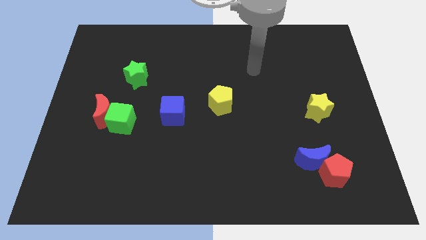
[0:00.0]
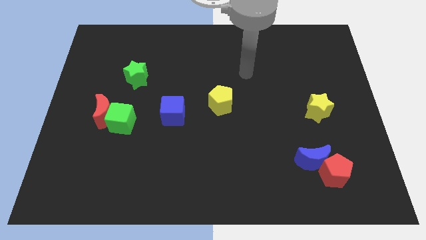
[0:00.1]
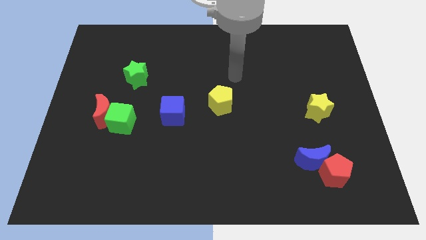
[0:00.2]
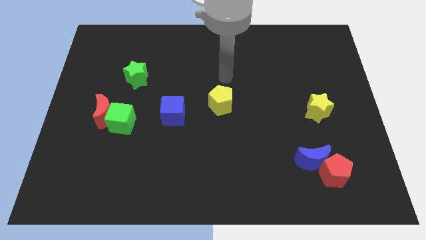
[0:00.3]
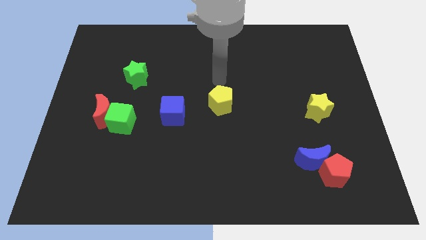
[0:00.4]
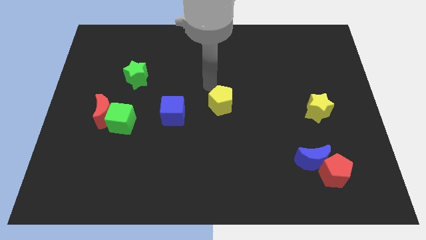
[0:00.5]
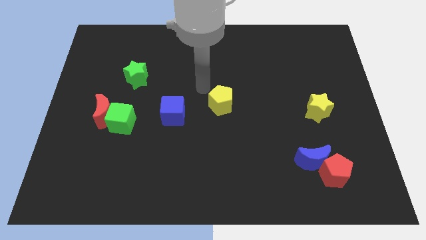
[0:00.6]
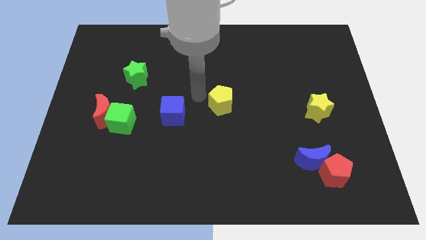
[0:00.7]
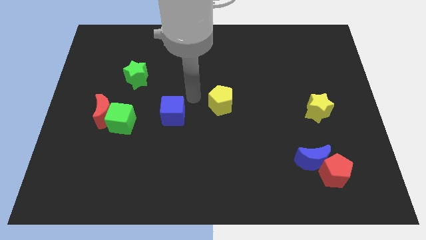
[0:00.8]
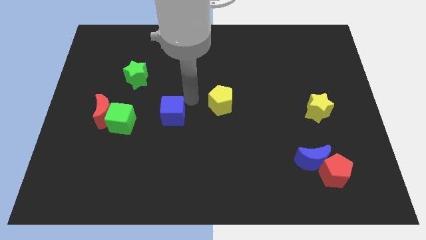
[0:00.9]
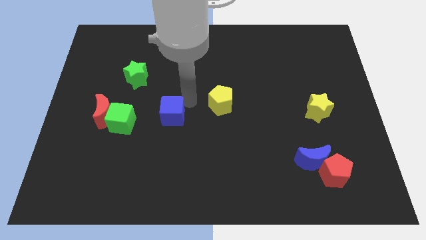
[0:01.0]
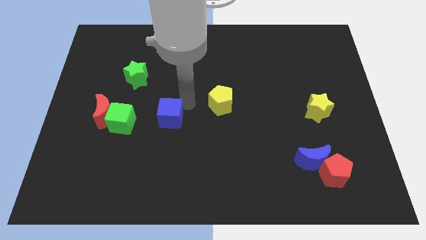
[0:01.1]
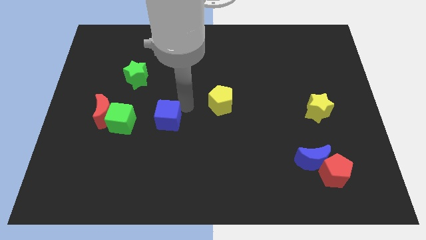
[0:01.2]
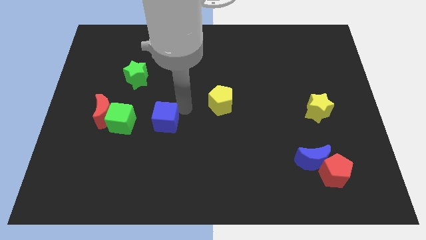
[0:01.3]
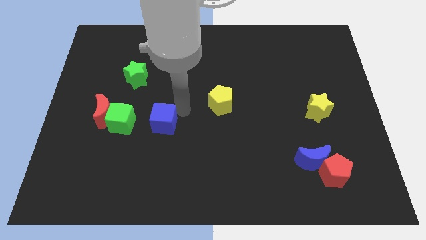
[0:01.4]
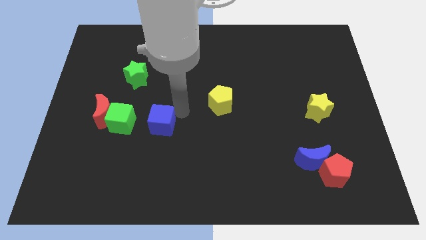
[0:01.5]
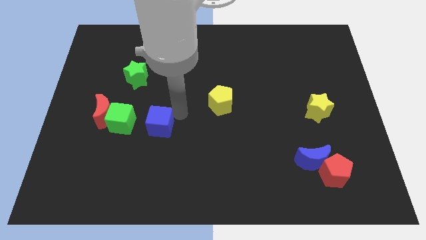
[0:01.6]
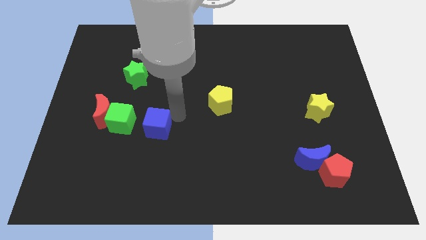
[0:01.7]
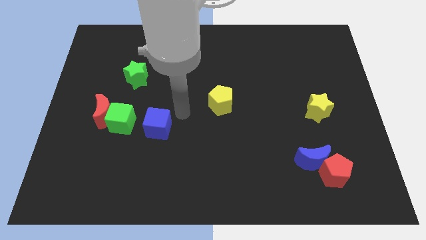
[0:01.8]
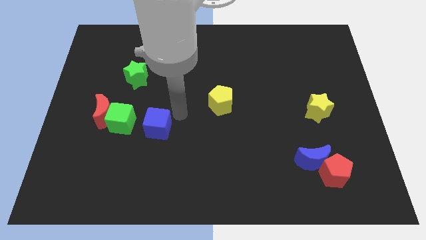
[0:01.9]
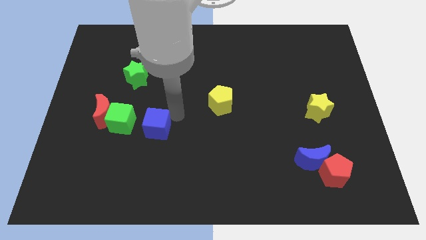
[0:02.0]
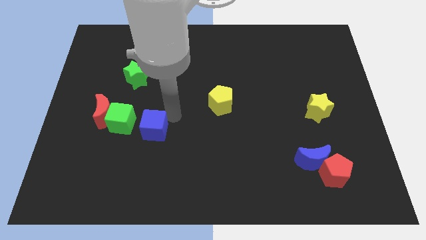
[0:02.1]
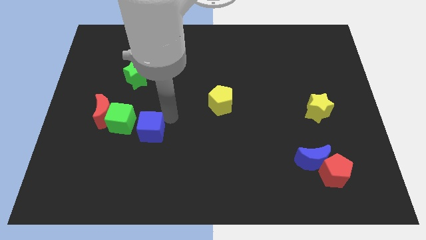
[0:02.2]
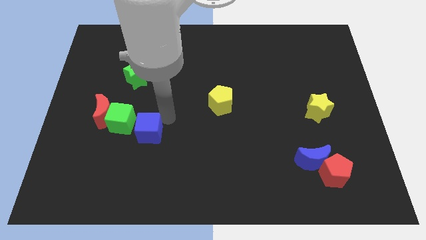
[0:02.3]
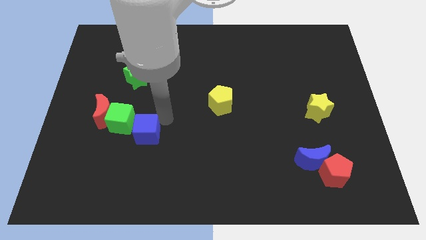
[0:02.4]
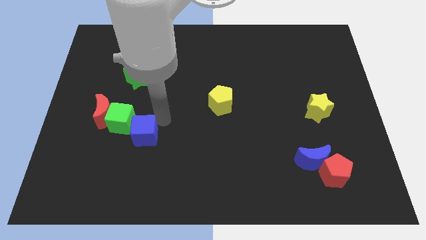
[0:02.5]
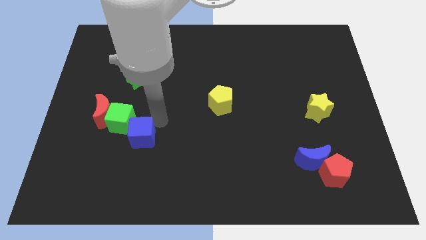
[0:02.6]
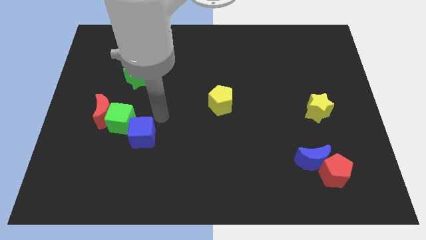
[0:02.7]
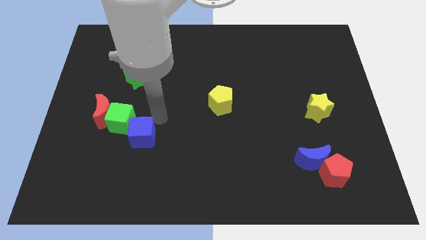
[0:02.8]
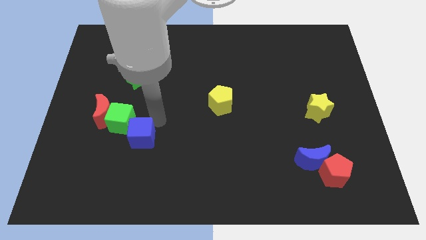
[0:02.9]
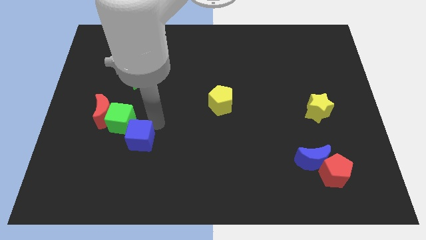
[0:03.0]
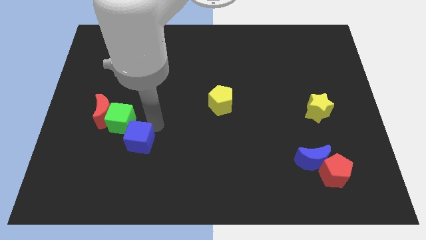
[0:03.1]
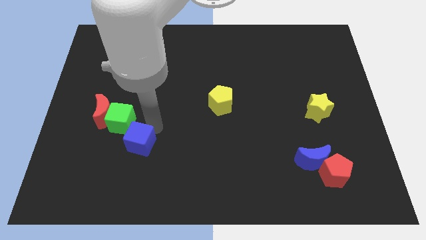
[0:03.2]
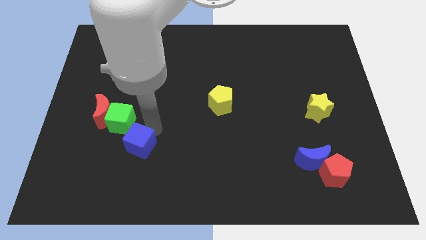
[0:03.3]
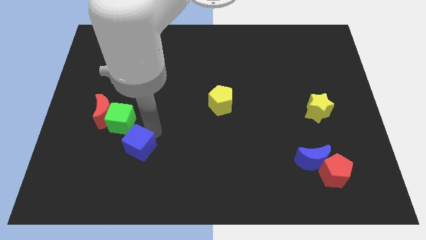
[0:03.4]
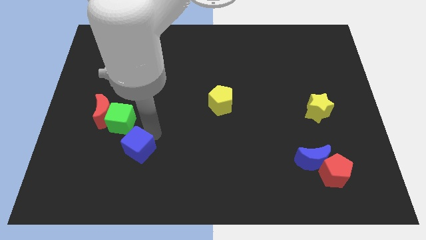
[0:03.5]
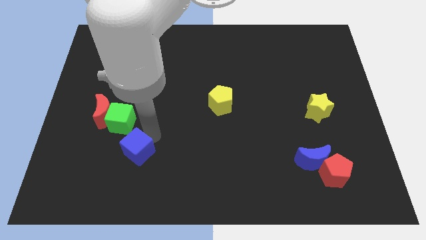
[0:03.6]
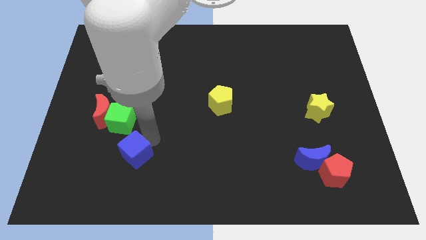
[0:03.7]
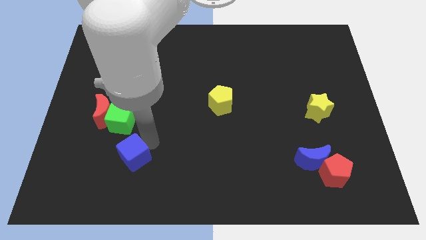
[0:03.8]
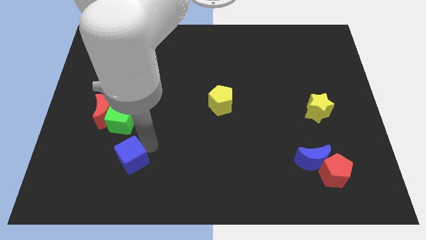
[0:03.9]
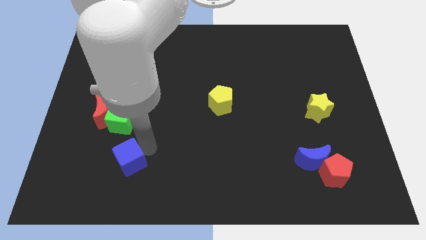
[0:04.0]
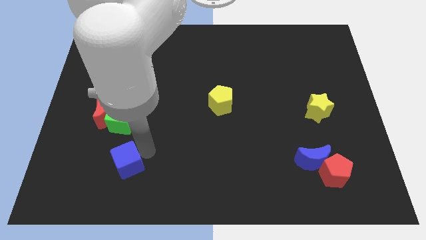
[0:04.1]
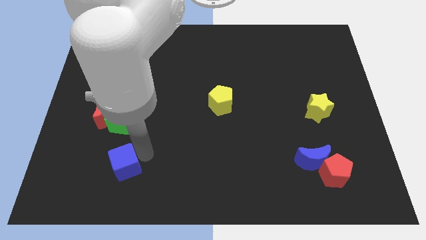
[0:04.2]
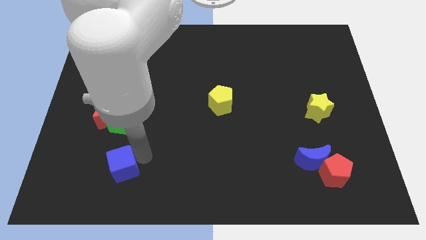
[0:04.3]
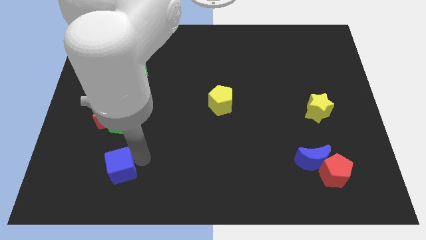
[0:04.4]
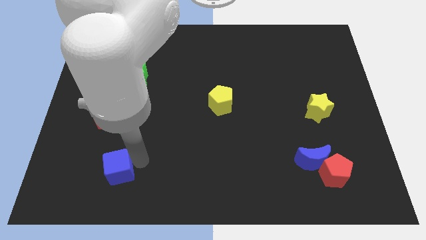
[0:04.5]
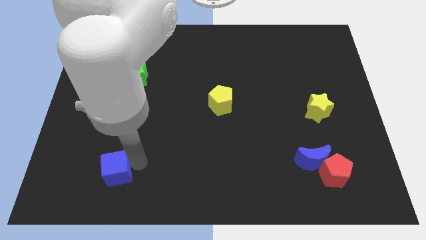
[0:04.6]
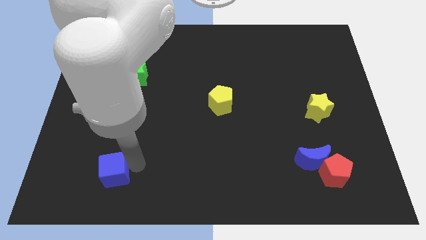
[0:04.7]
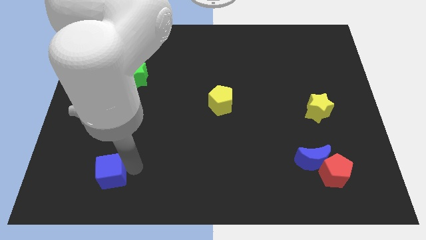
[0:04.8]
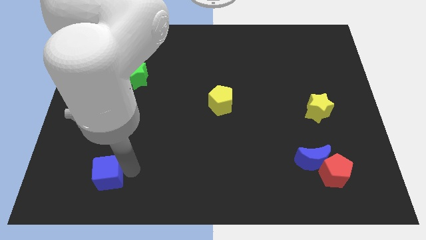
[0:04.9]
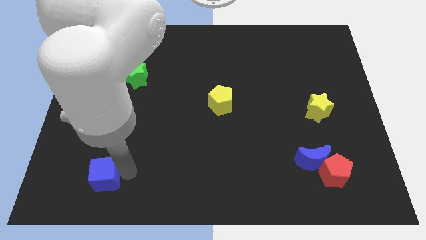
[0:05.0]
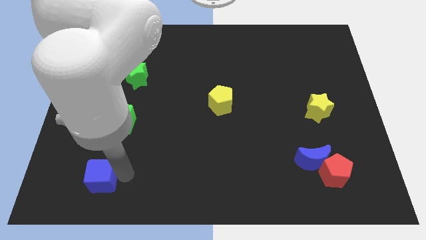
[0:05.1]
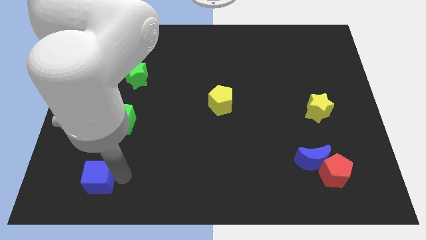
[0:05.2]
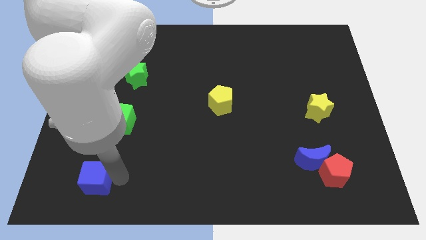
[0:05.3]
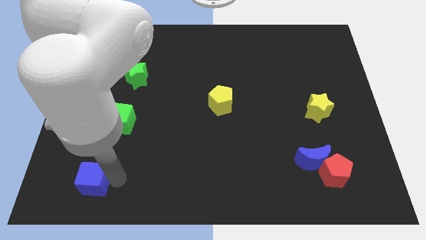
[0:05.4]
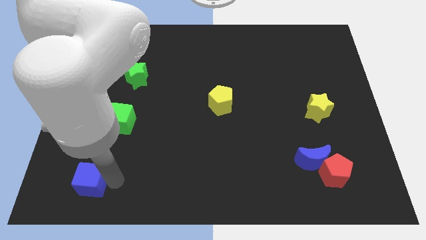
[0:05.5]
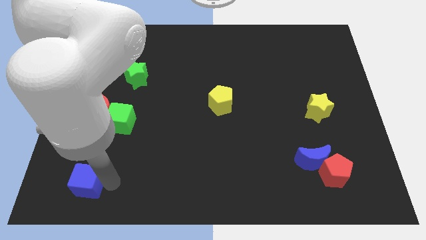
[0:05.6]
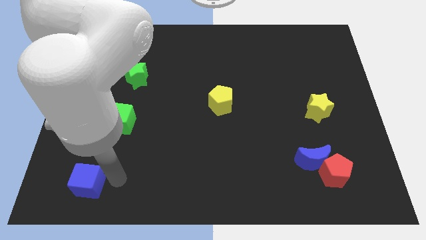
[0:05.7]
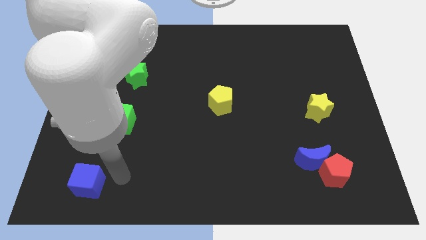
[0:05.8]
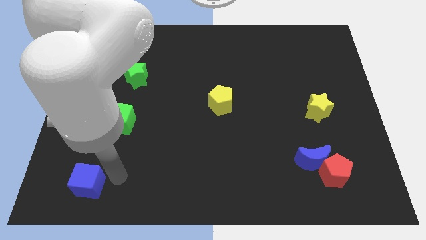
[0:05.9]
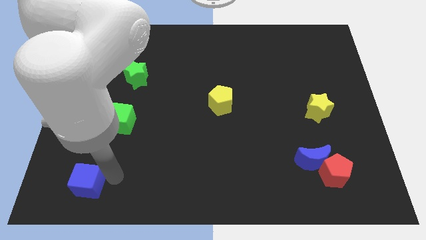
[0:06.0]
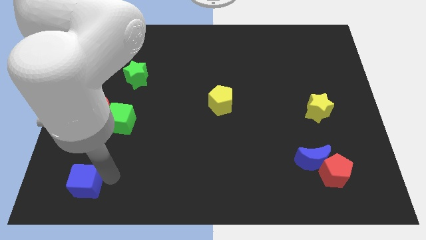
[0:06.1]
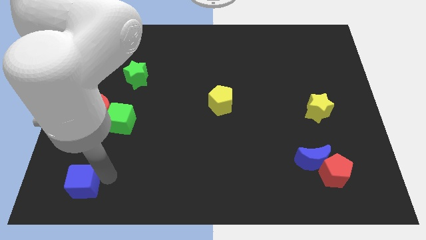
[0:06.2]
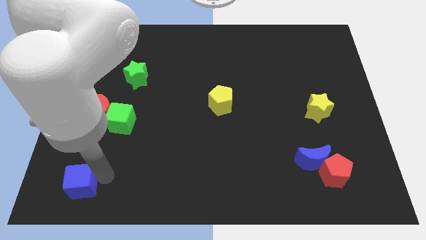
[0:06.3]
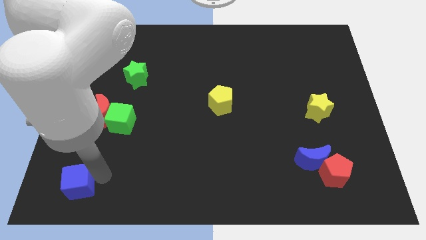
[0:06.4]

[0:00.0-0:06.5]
push the blue cube to the lower left corner

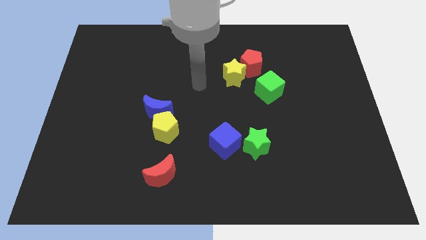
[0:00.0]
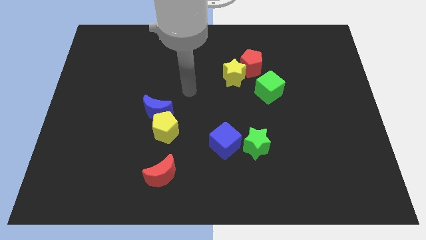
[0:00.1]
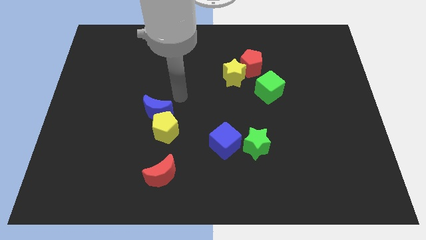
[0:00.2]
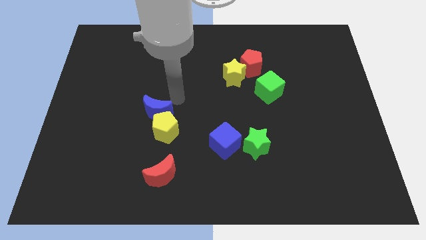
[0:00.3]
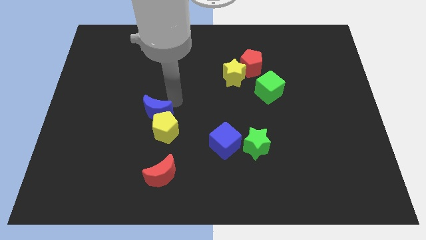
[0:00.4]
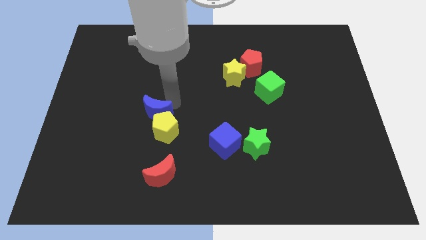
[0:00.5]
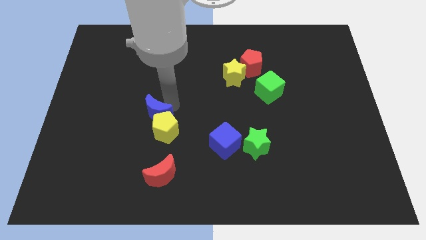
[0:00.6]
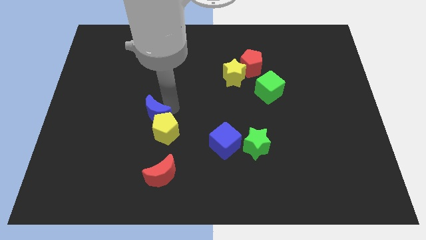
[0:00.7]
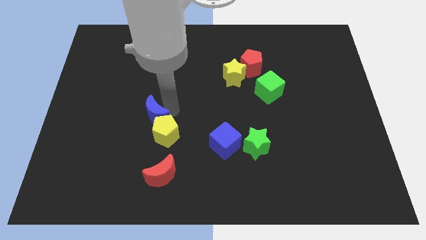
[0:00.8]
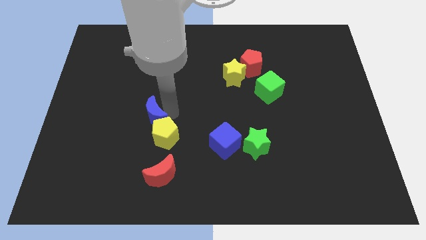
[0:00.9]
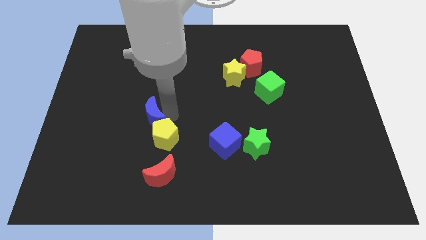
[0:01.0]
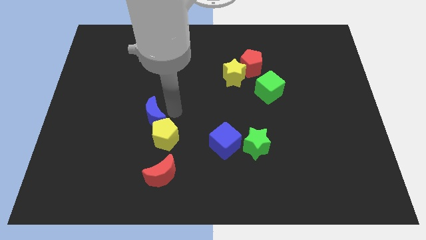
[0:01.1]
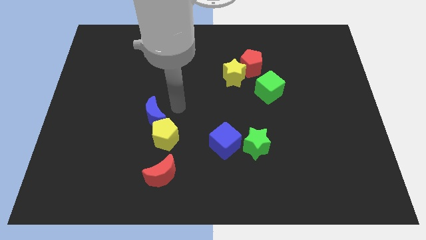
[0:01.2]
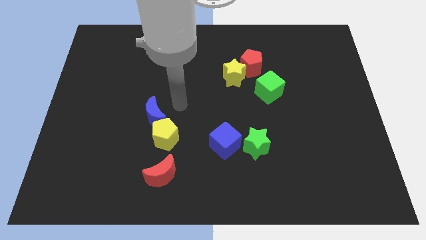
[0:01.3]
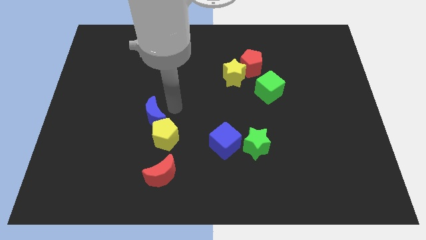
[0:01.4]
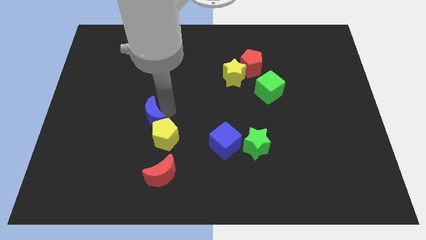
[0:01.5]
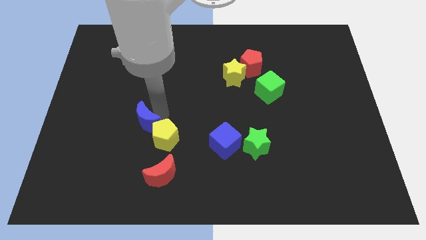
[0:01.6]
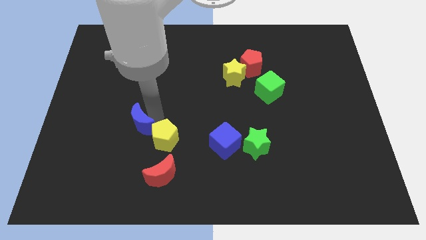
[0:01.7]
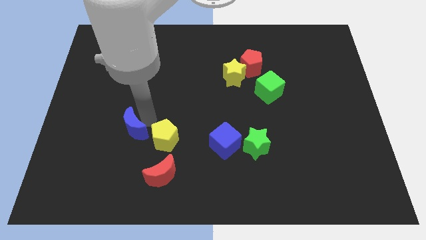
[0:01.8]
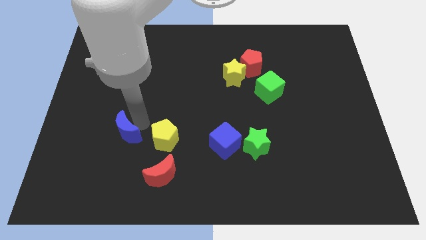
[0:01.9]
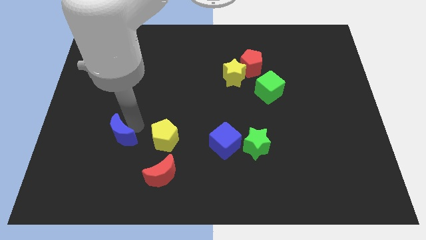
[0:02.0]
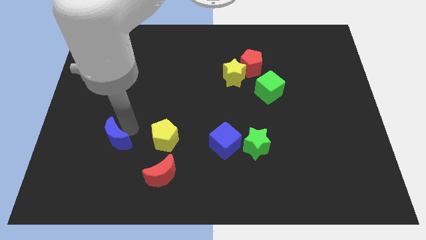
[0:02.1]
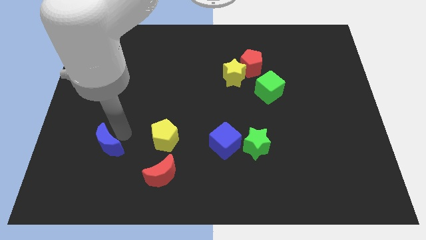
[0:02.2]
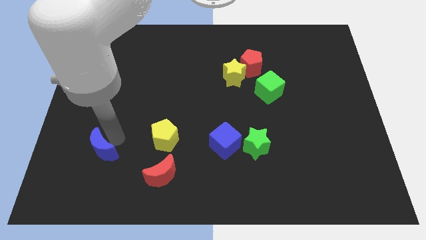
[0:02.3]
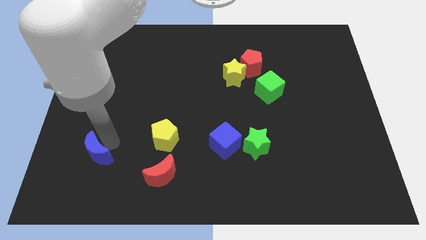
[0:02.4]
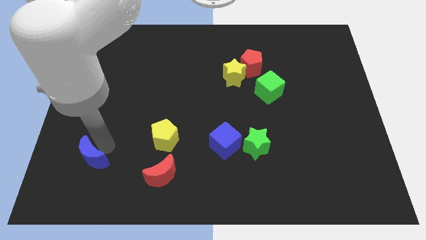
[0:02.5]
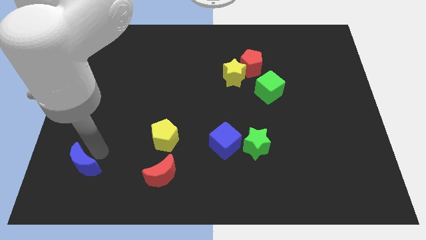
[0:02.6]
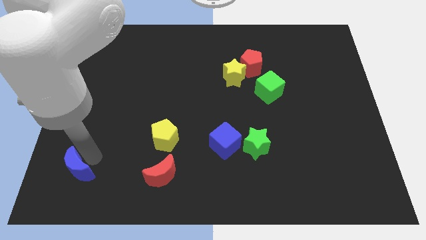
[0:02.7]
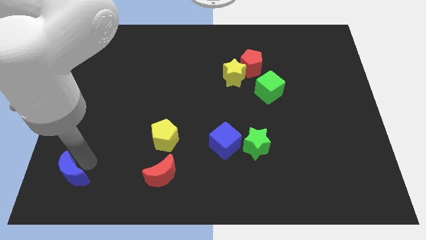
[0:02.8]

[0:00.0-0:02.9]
move the blue moon to the bottom left of the board
